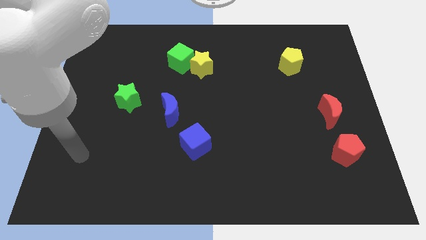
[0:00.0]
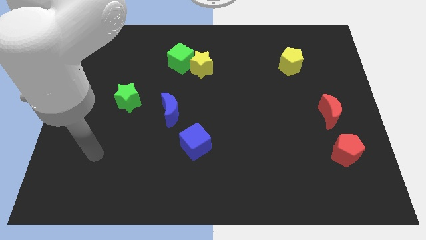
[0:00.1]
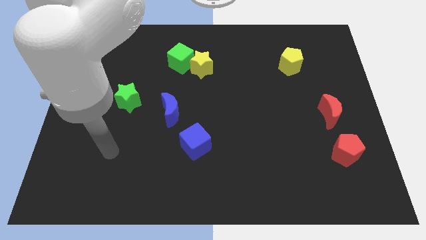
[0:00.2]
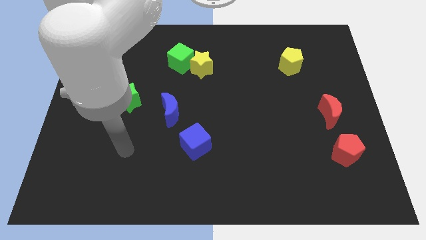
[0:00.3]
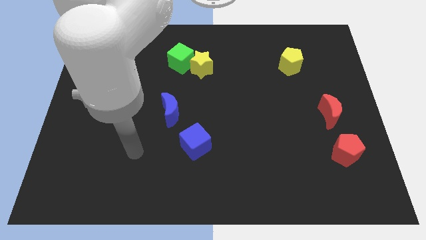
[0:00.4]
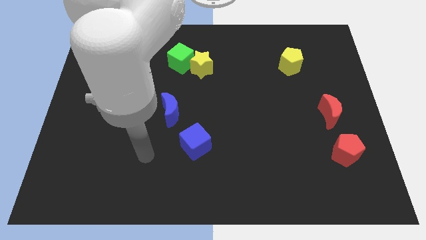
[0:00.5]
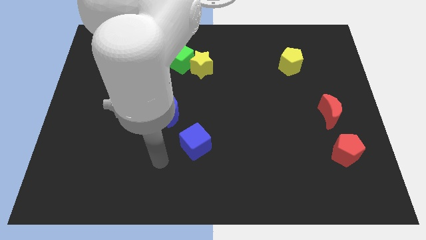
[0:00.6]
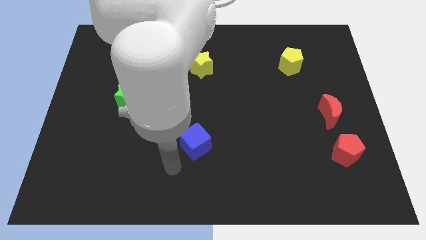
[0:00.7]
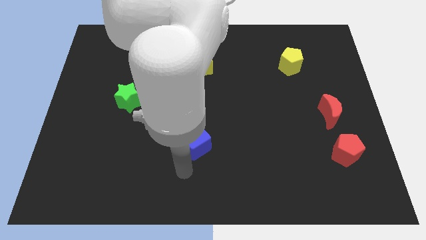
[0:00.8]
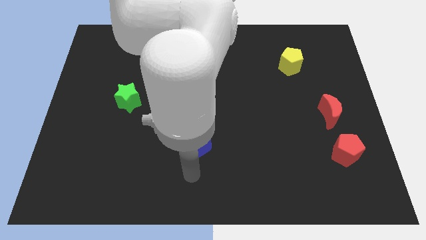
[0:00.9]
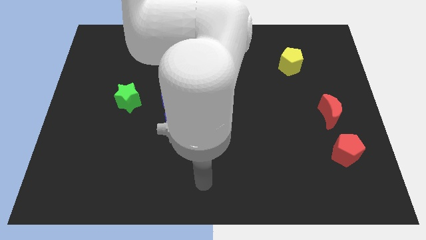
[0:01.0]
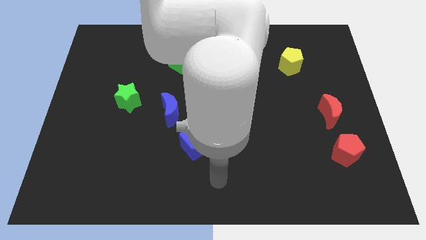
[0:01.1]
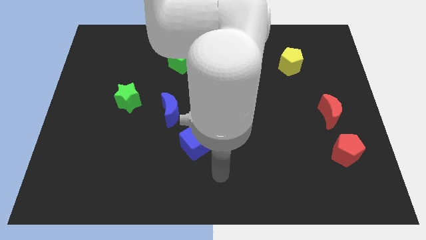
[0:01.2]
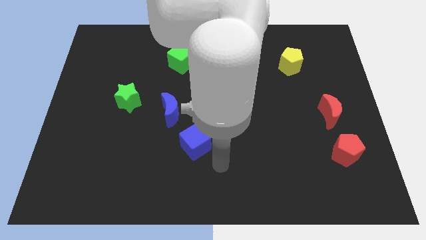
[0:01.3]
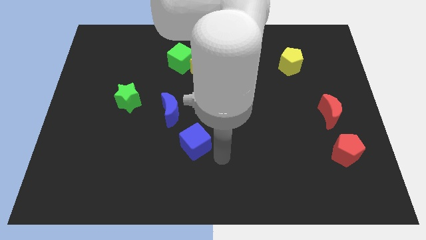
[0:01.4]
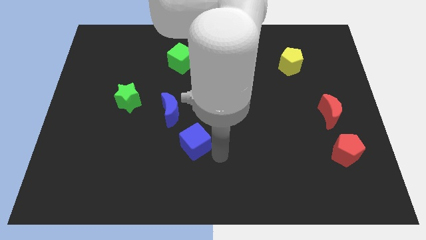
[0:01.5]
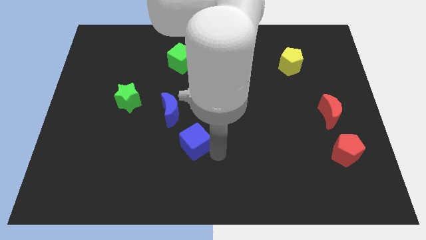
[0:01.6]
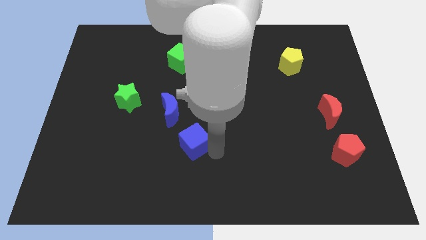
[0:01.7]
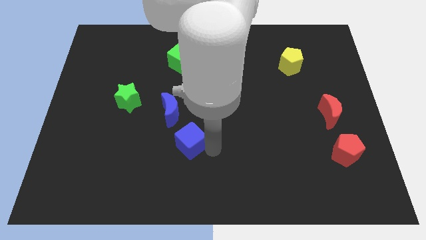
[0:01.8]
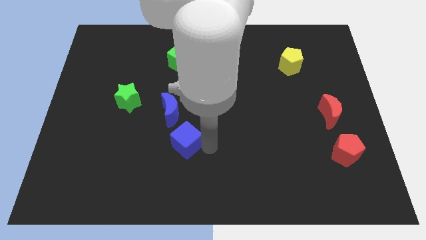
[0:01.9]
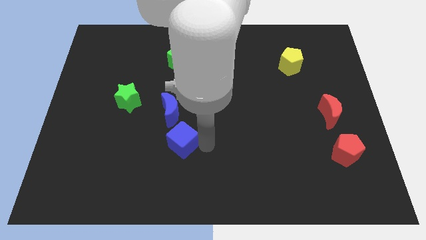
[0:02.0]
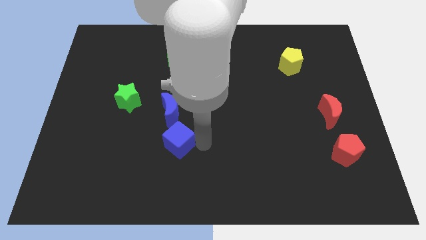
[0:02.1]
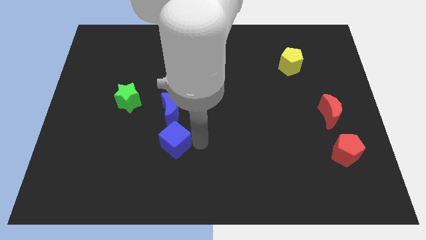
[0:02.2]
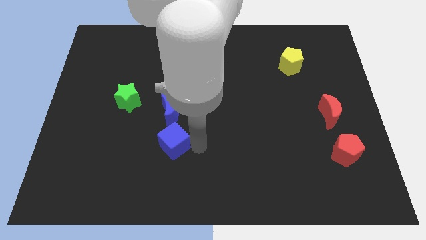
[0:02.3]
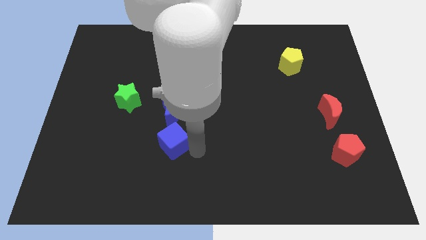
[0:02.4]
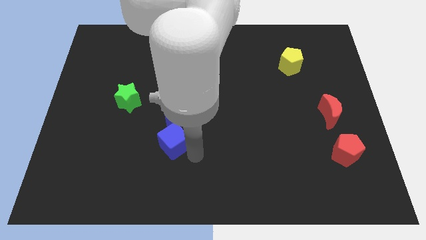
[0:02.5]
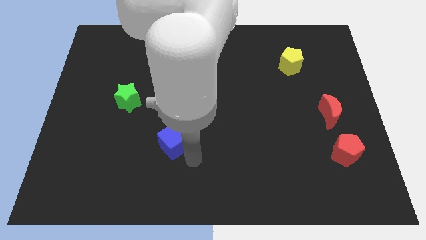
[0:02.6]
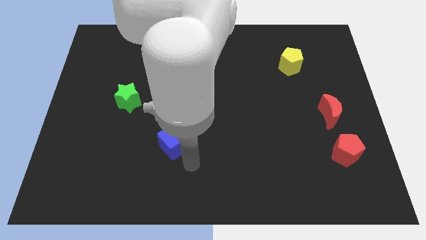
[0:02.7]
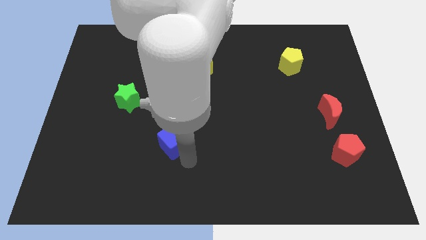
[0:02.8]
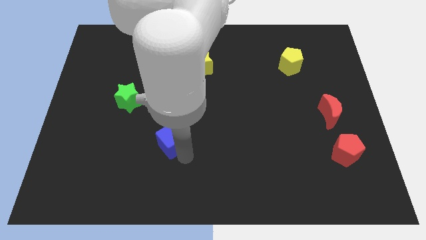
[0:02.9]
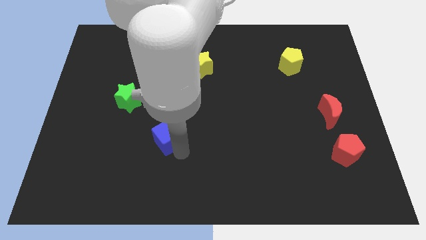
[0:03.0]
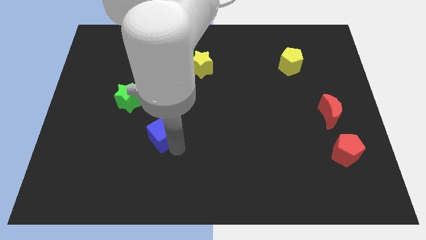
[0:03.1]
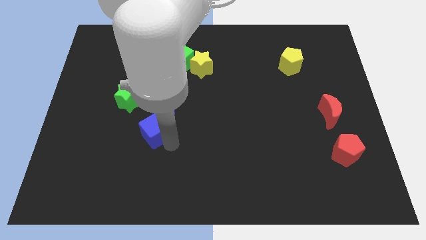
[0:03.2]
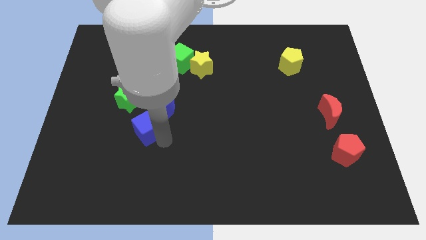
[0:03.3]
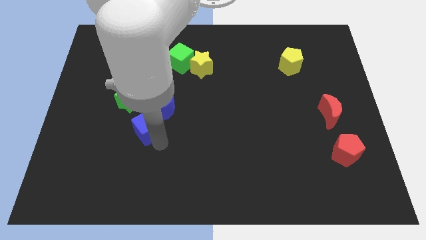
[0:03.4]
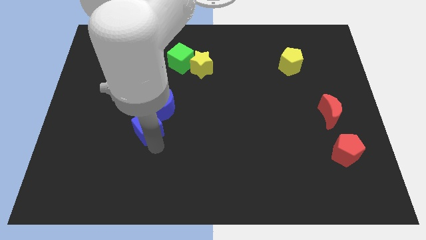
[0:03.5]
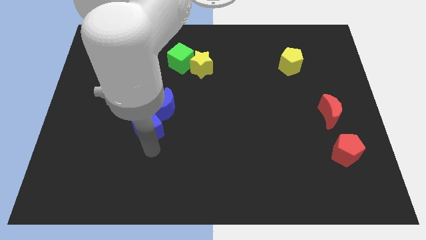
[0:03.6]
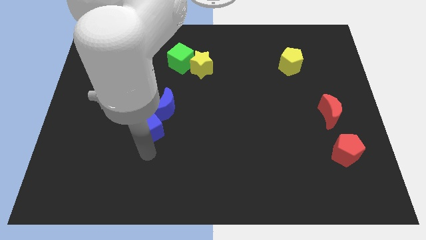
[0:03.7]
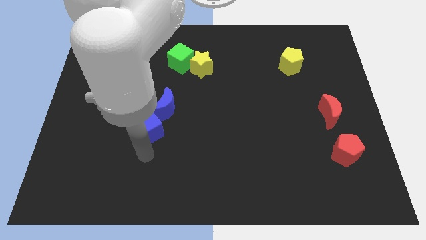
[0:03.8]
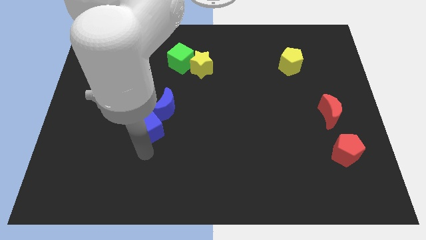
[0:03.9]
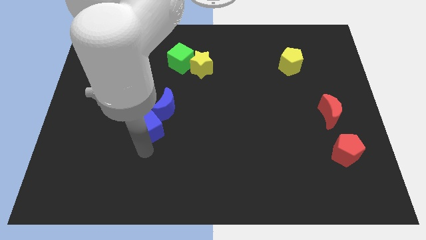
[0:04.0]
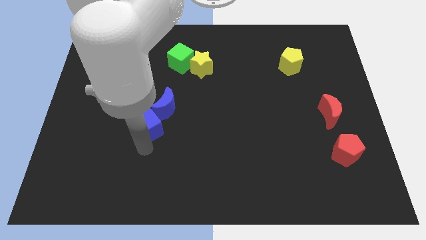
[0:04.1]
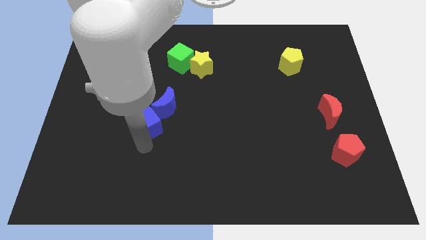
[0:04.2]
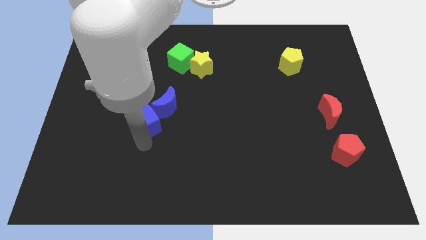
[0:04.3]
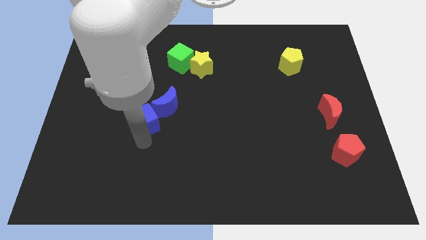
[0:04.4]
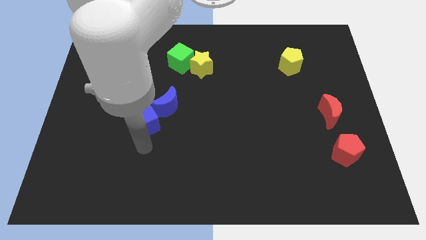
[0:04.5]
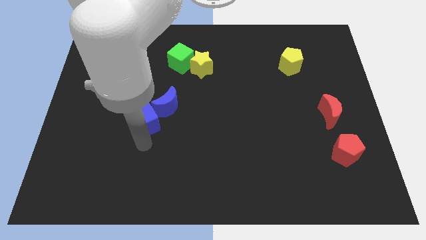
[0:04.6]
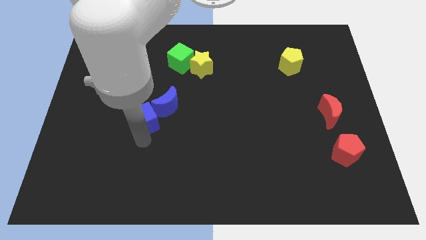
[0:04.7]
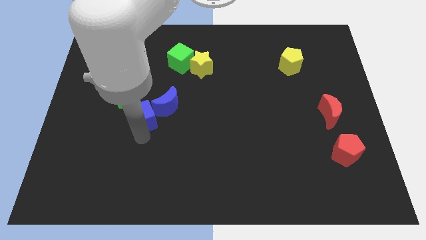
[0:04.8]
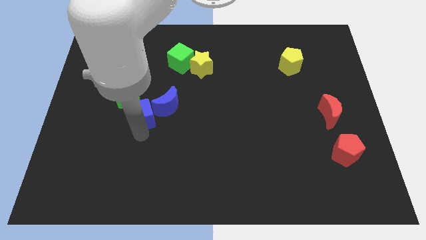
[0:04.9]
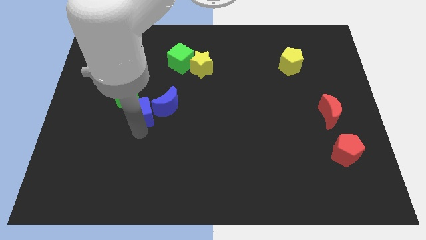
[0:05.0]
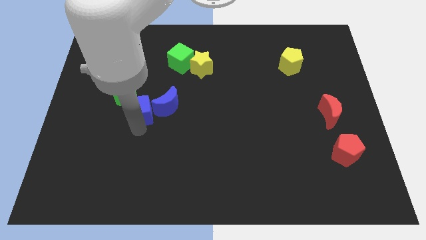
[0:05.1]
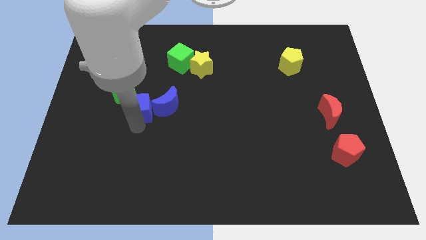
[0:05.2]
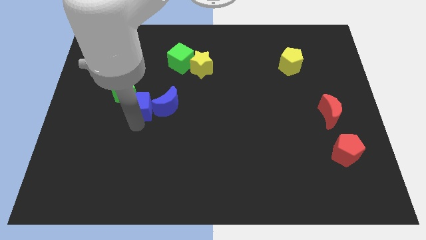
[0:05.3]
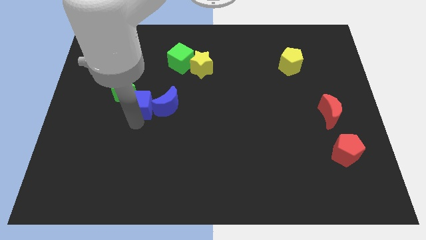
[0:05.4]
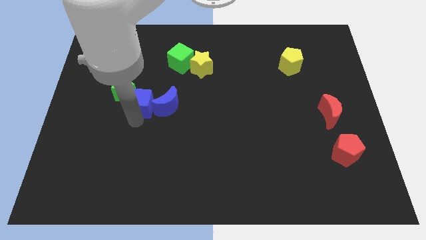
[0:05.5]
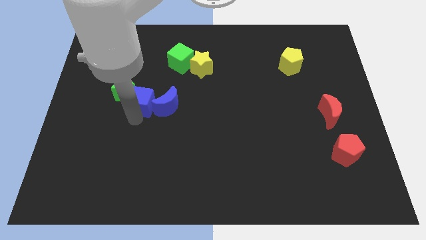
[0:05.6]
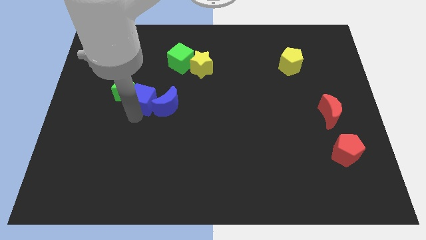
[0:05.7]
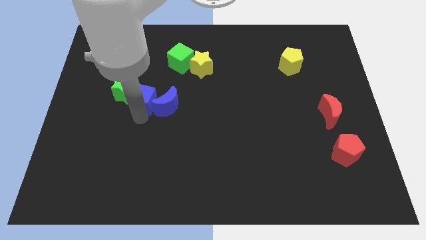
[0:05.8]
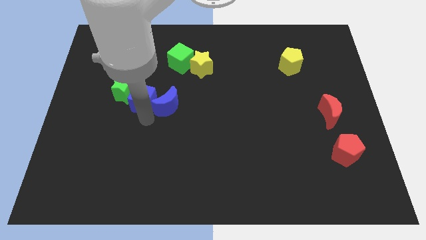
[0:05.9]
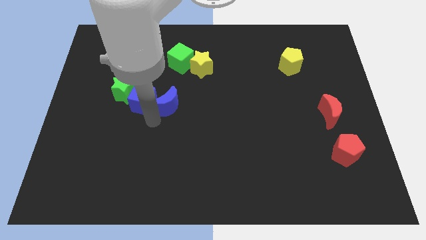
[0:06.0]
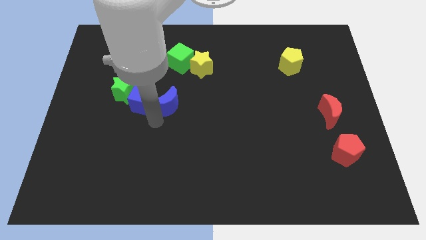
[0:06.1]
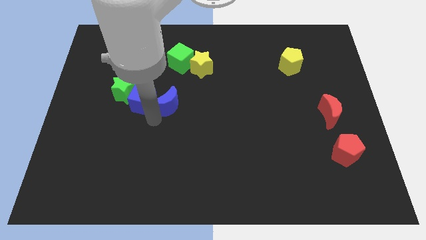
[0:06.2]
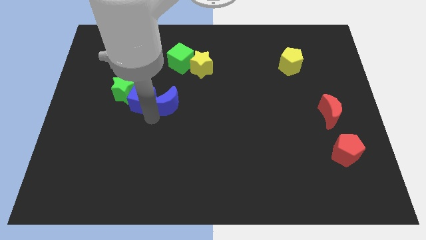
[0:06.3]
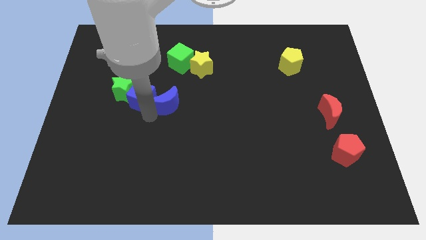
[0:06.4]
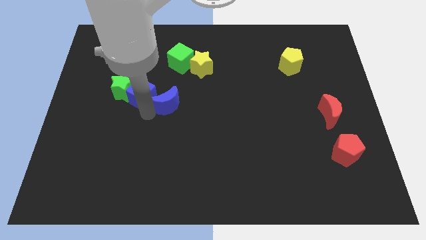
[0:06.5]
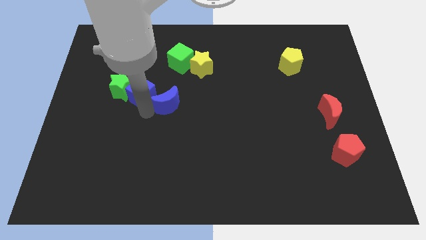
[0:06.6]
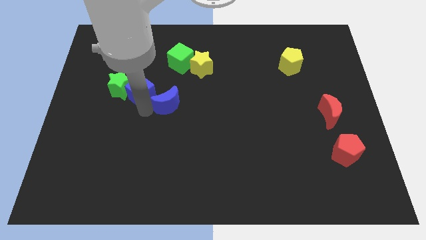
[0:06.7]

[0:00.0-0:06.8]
move the blue cube upwards and then to the left

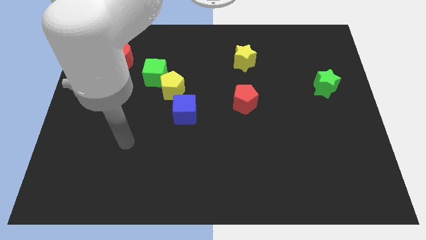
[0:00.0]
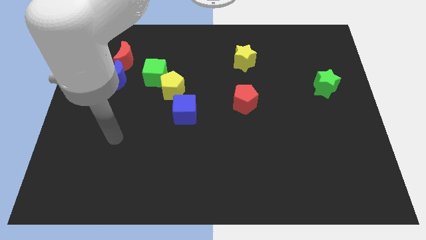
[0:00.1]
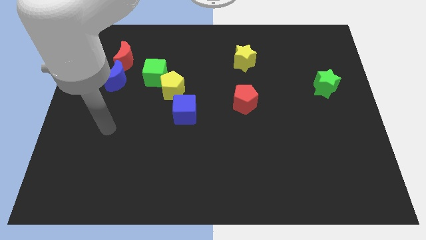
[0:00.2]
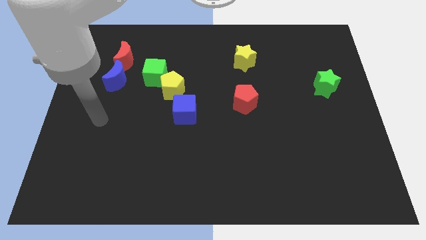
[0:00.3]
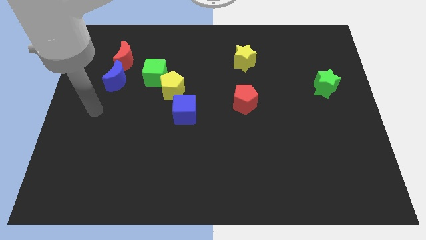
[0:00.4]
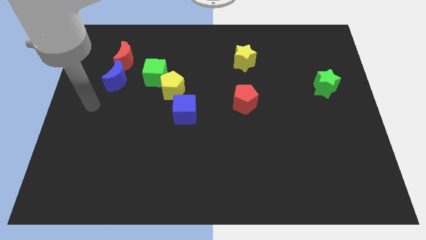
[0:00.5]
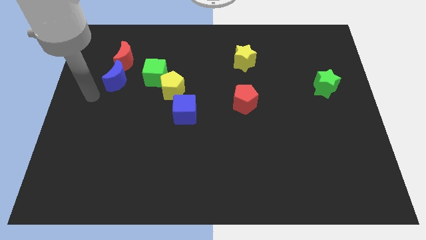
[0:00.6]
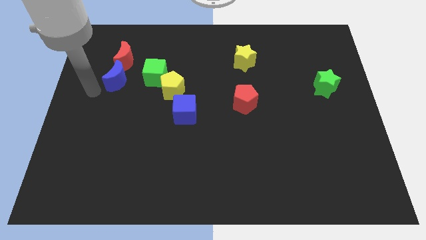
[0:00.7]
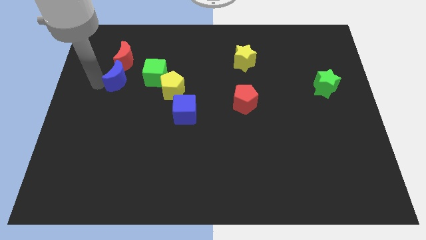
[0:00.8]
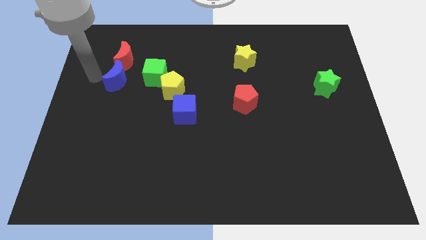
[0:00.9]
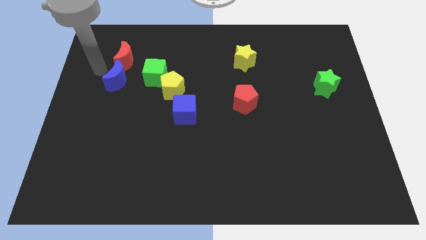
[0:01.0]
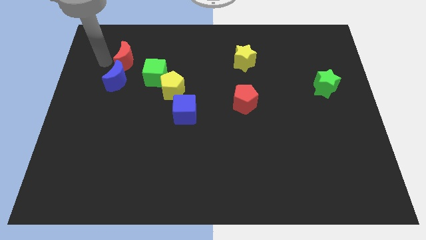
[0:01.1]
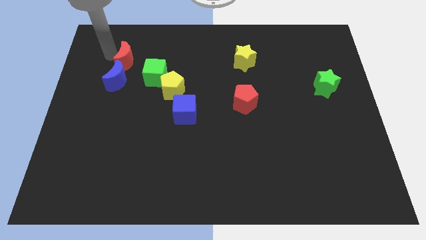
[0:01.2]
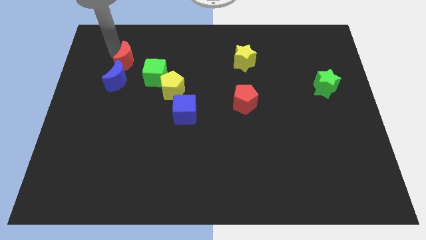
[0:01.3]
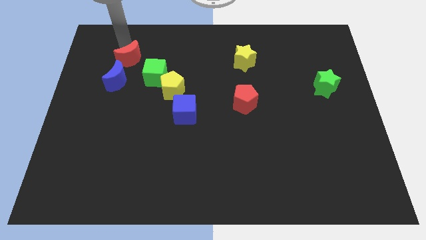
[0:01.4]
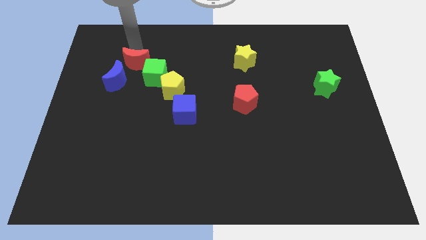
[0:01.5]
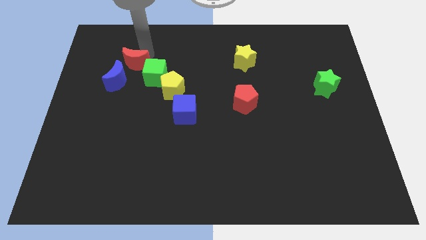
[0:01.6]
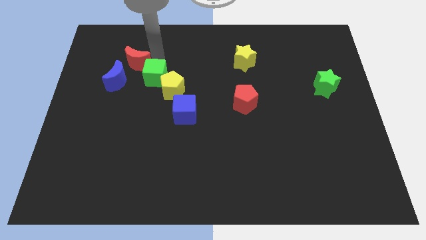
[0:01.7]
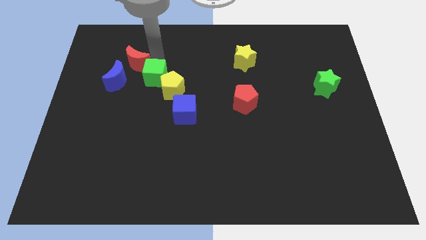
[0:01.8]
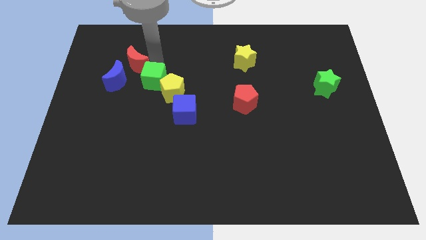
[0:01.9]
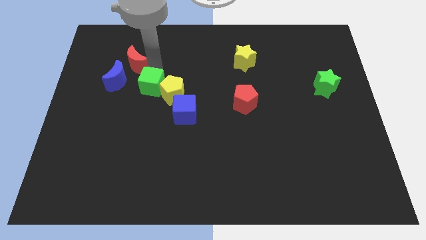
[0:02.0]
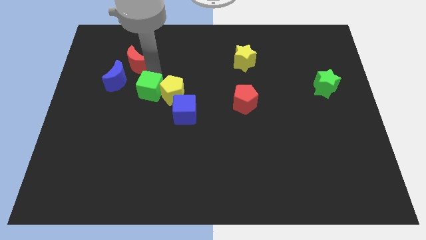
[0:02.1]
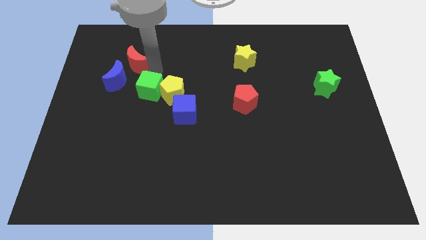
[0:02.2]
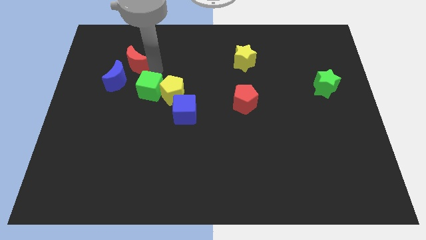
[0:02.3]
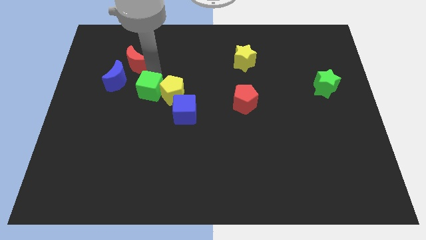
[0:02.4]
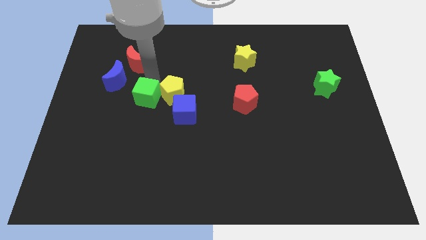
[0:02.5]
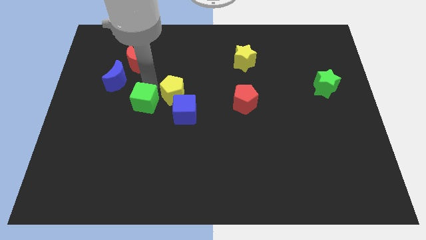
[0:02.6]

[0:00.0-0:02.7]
slightly slide the green cube down
